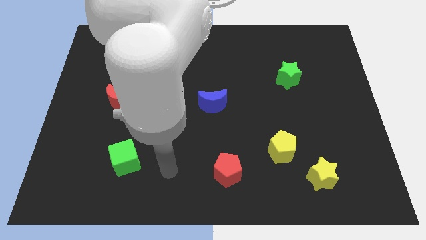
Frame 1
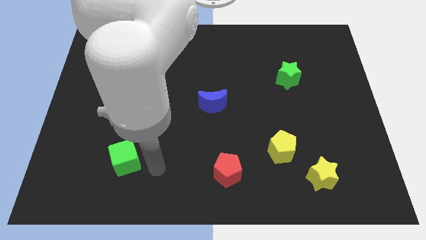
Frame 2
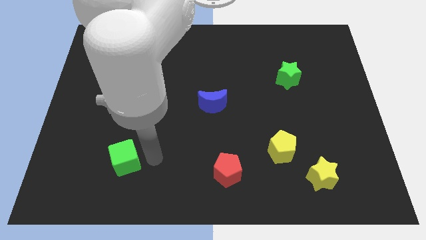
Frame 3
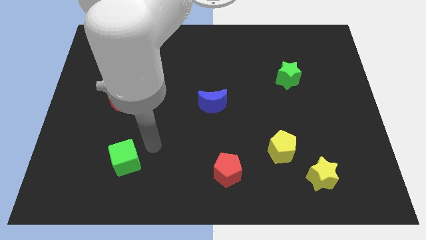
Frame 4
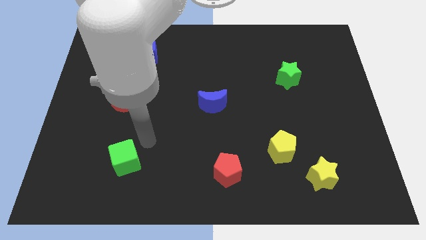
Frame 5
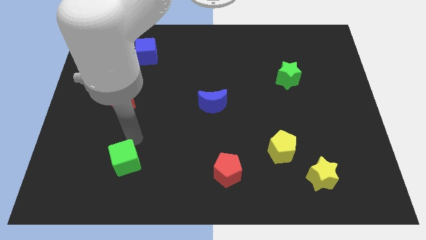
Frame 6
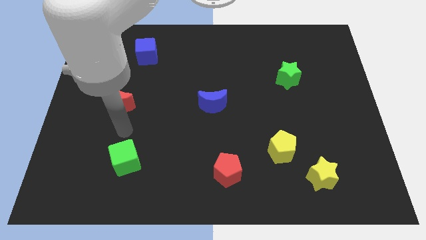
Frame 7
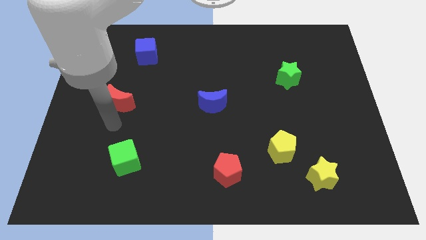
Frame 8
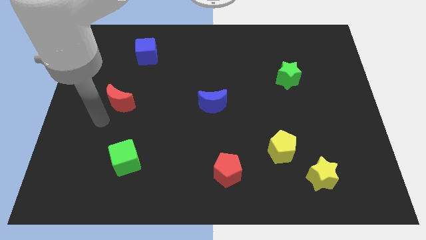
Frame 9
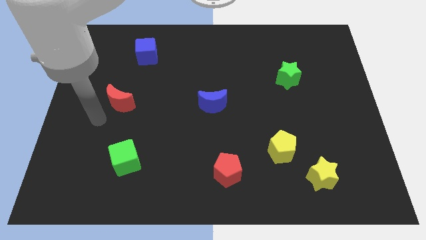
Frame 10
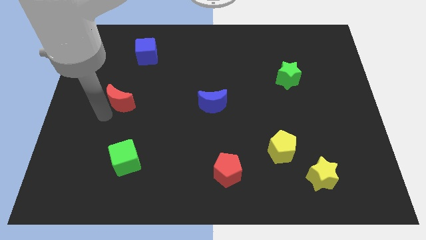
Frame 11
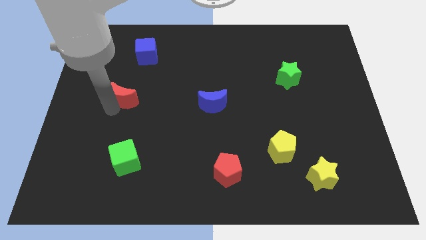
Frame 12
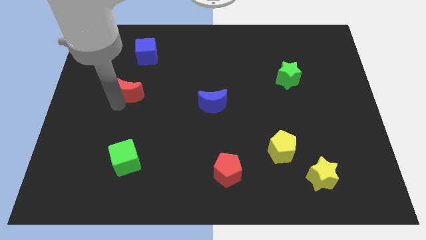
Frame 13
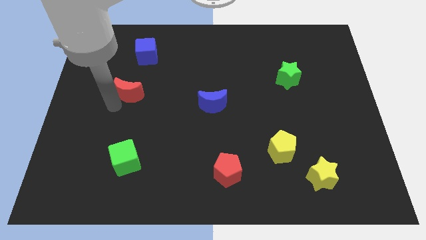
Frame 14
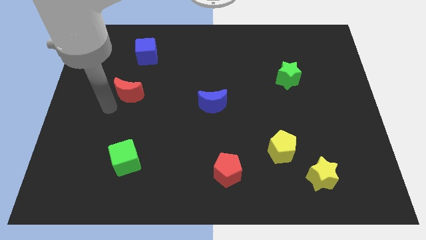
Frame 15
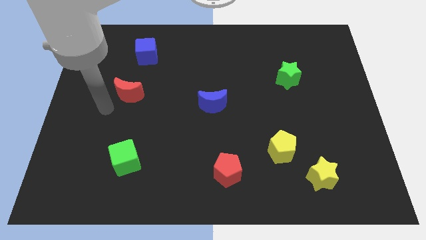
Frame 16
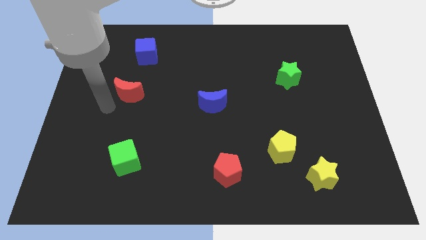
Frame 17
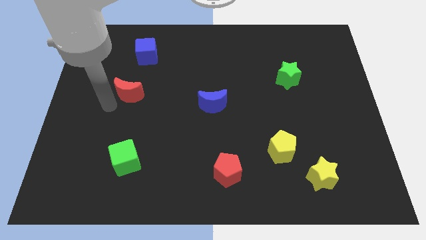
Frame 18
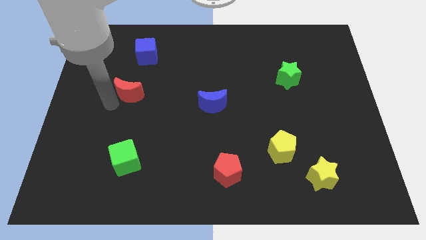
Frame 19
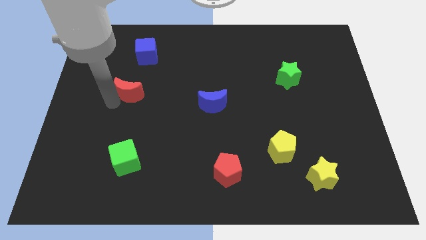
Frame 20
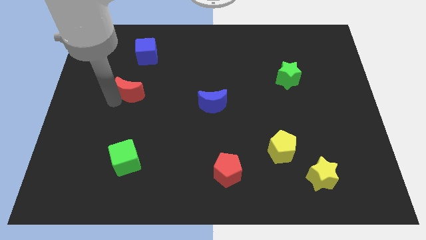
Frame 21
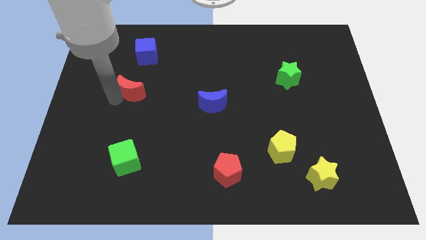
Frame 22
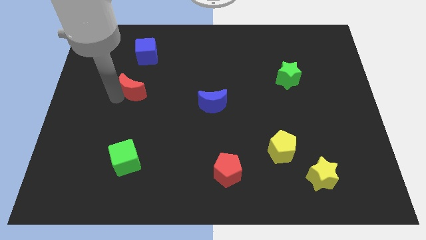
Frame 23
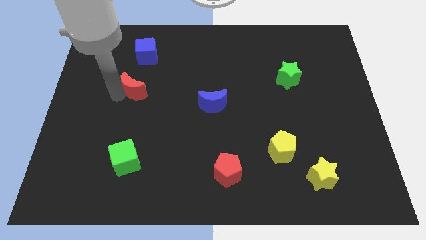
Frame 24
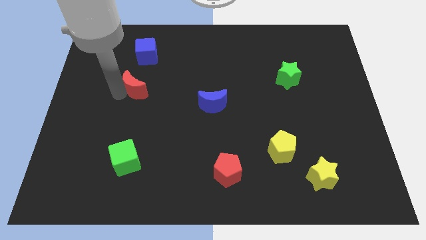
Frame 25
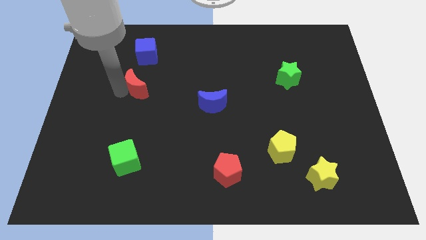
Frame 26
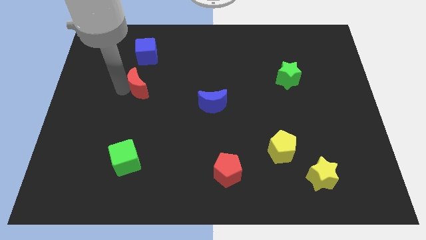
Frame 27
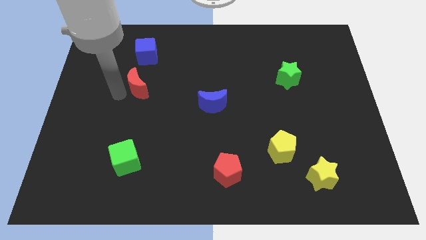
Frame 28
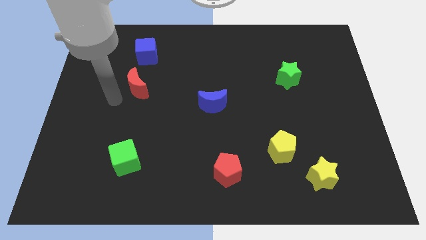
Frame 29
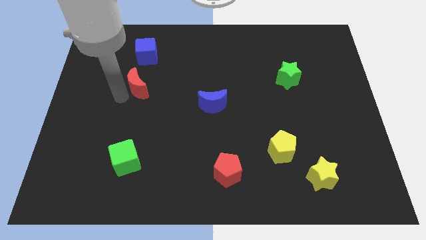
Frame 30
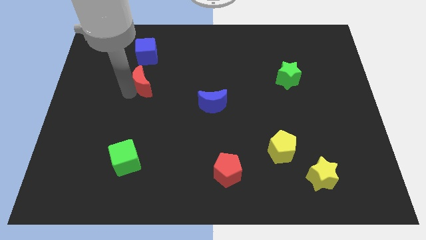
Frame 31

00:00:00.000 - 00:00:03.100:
move the red moon a bit upwards and to the right diagonally

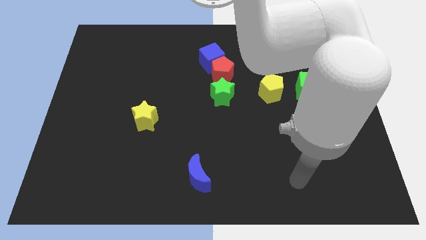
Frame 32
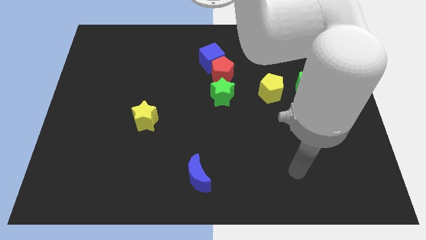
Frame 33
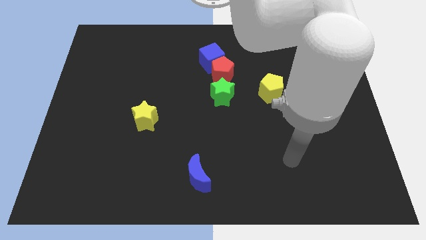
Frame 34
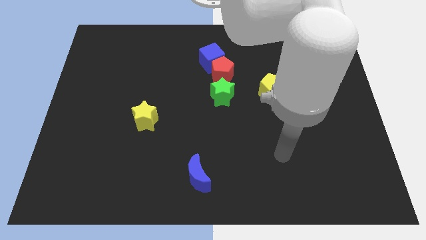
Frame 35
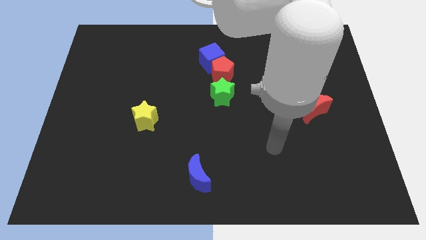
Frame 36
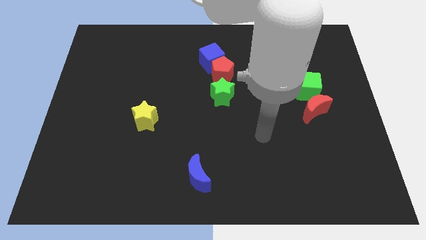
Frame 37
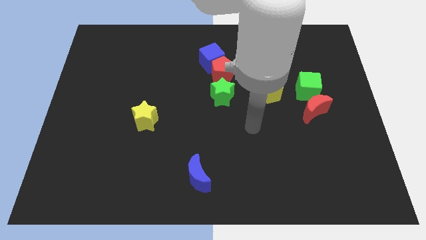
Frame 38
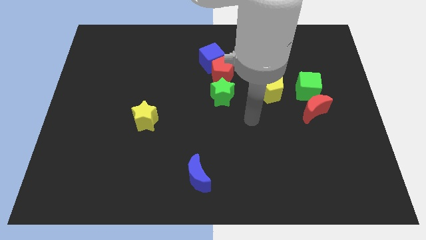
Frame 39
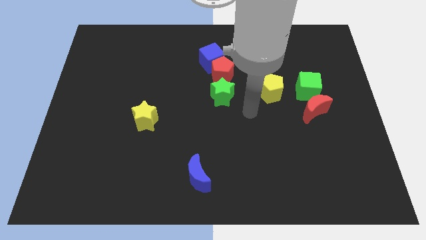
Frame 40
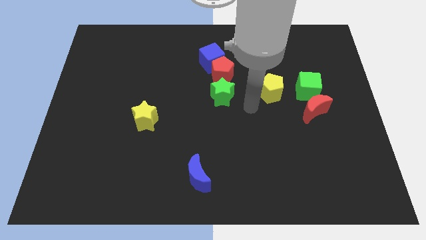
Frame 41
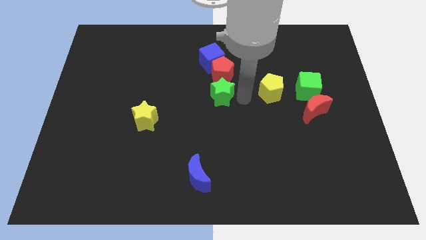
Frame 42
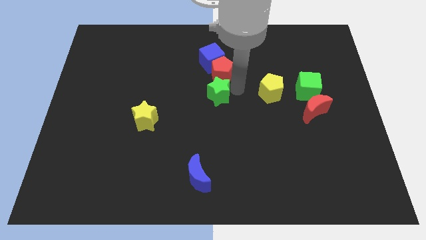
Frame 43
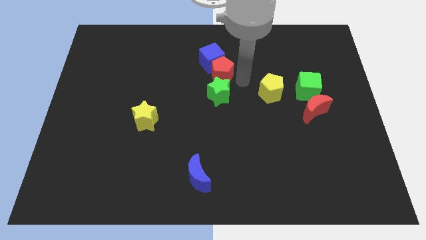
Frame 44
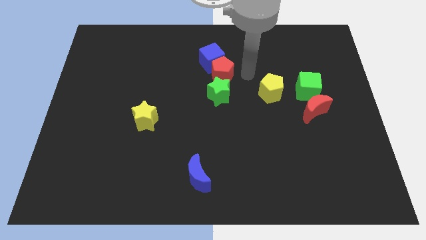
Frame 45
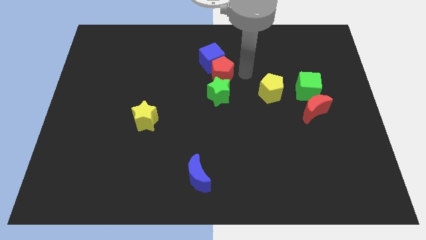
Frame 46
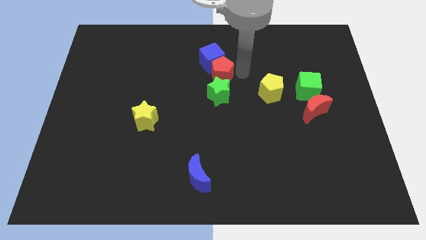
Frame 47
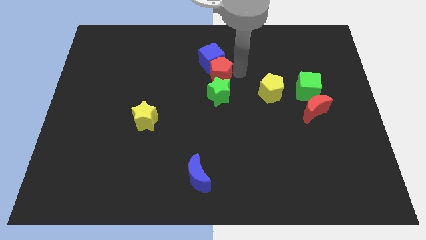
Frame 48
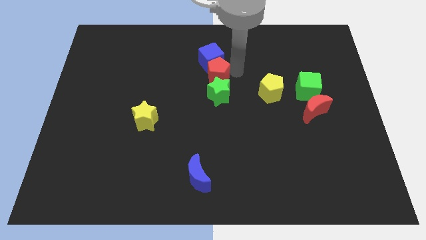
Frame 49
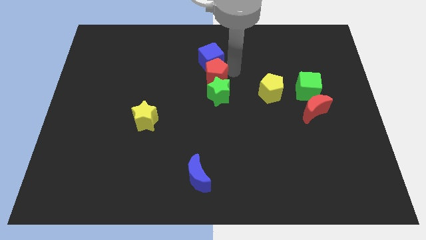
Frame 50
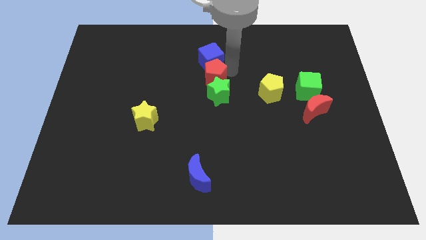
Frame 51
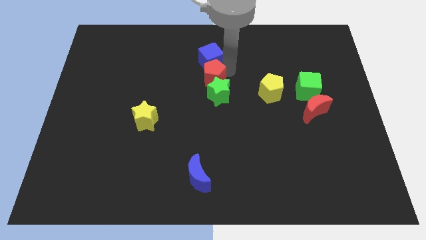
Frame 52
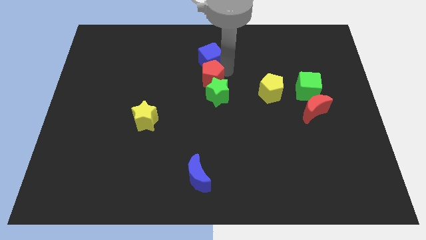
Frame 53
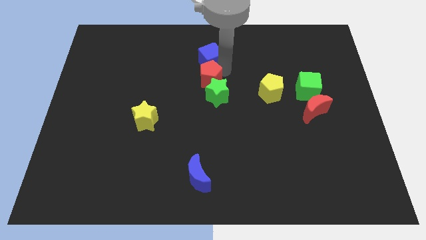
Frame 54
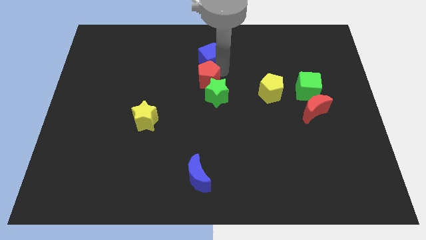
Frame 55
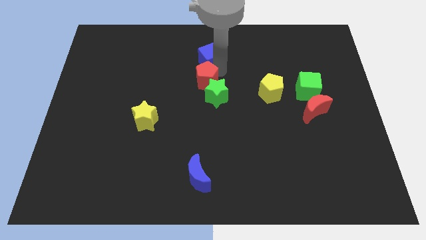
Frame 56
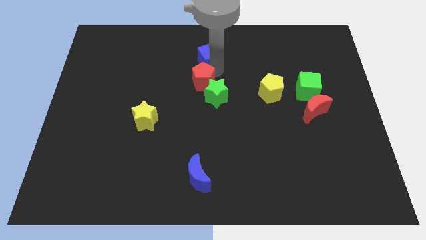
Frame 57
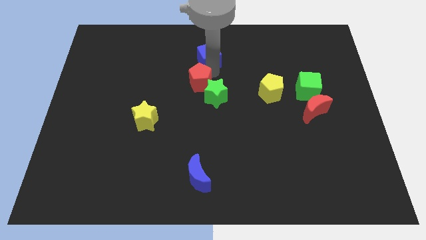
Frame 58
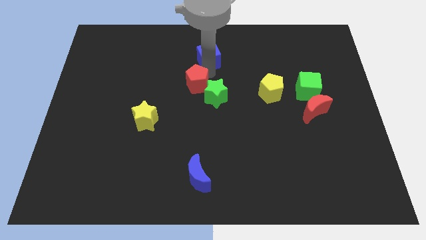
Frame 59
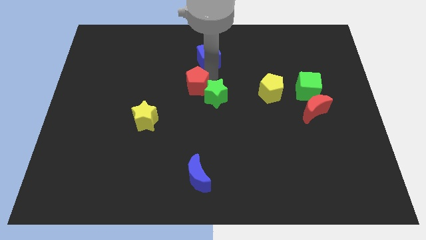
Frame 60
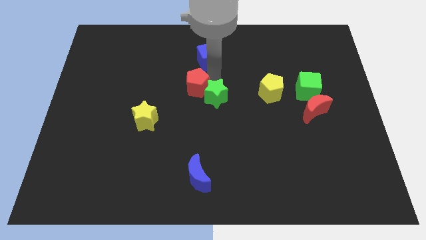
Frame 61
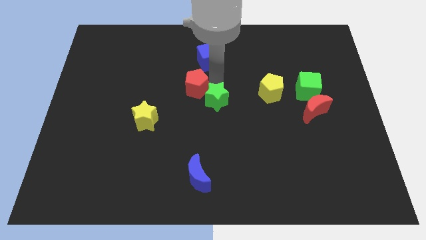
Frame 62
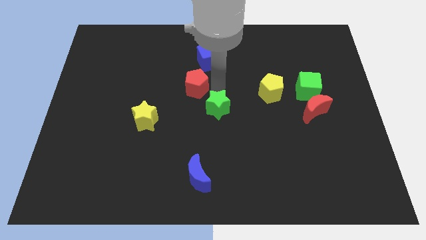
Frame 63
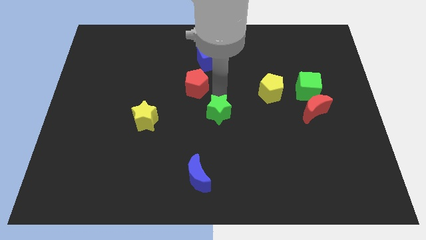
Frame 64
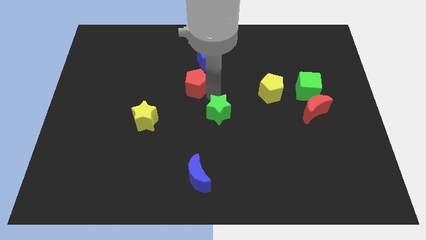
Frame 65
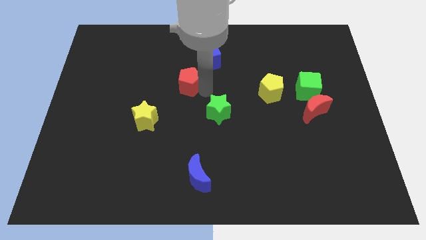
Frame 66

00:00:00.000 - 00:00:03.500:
push the red pentagon left a little bit

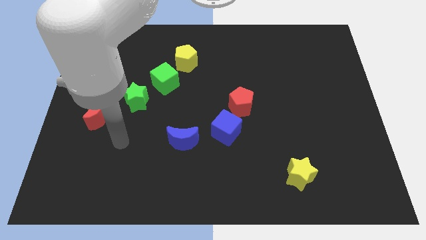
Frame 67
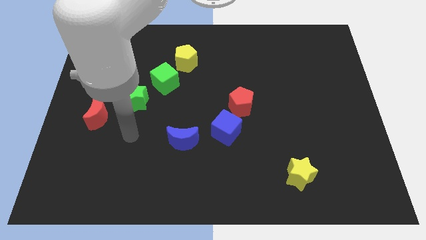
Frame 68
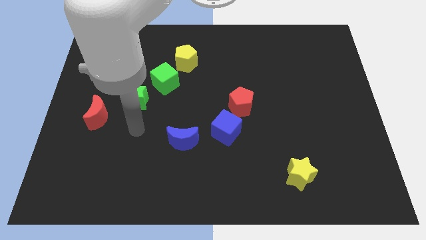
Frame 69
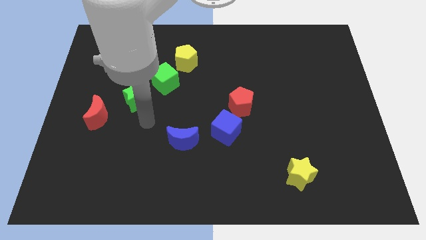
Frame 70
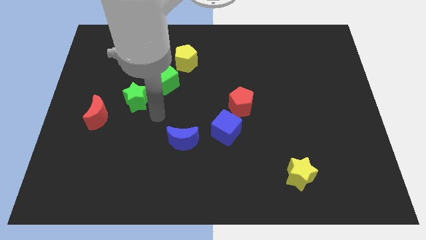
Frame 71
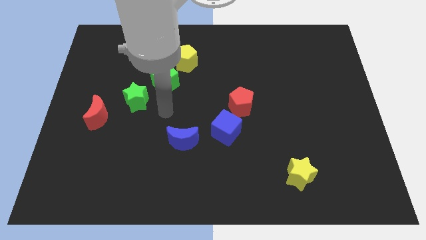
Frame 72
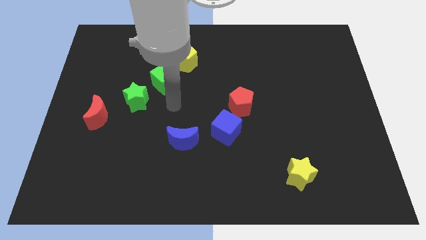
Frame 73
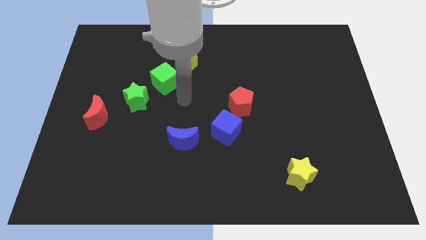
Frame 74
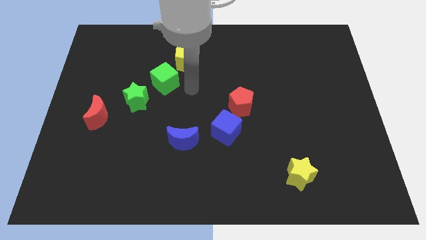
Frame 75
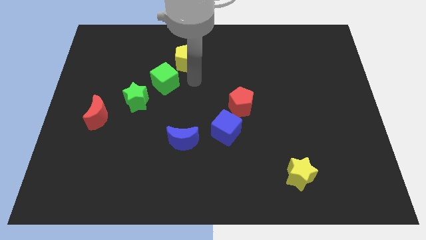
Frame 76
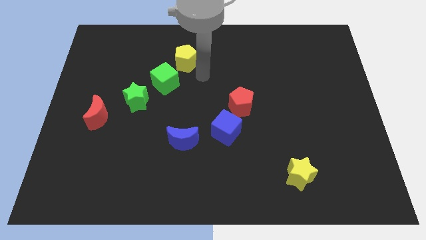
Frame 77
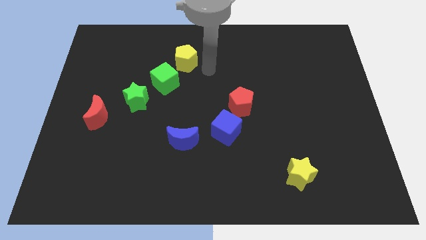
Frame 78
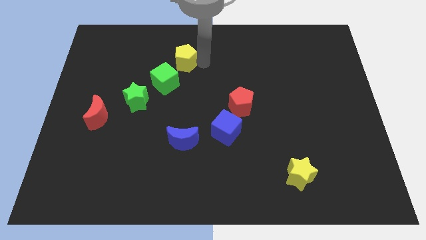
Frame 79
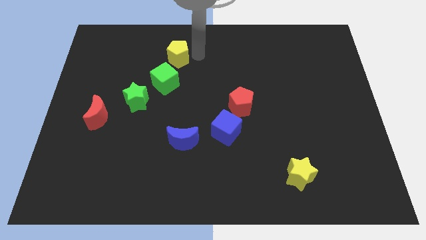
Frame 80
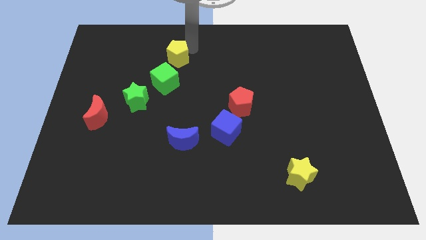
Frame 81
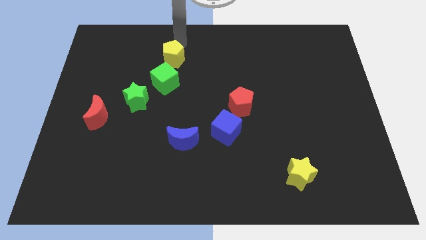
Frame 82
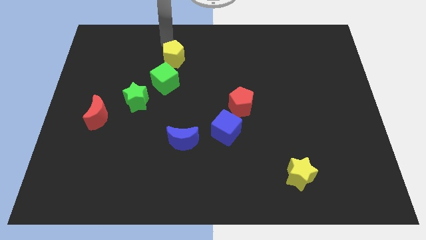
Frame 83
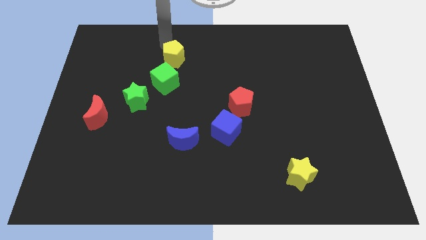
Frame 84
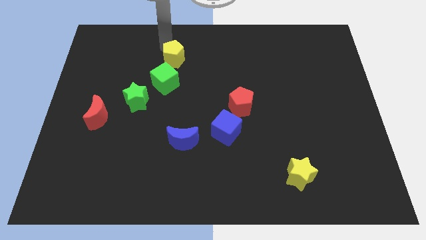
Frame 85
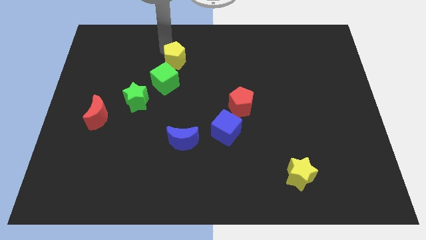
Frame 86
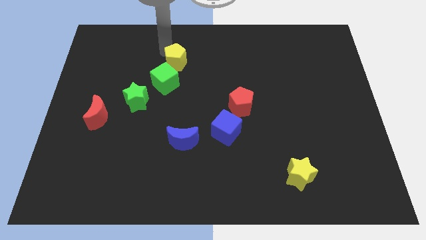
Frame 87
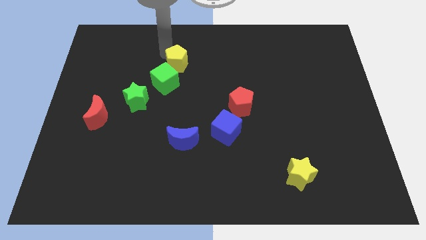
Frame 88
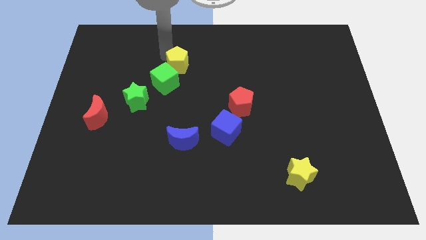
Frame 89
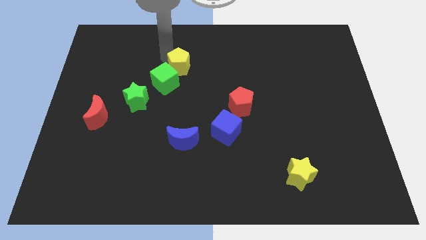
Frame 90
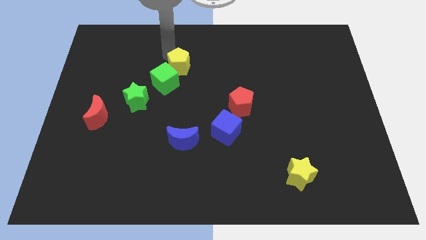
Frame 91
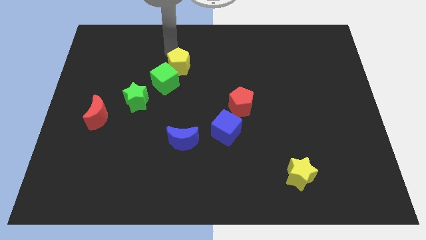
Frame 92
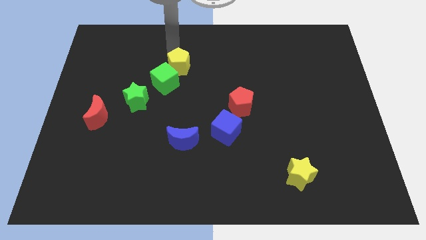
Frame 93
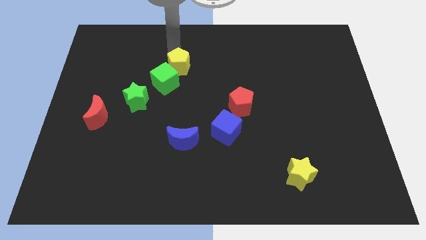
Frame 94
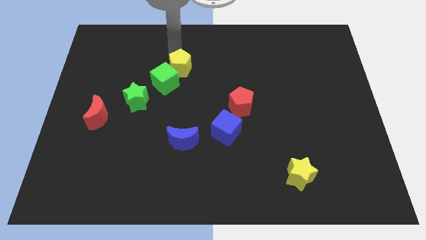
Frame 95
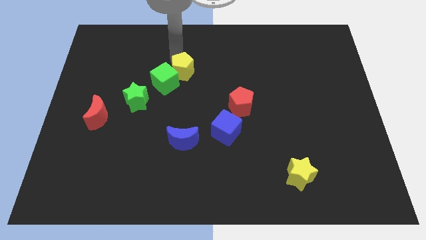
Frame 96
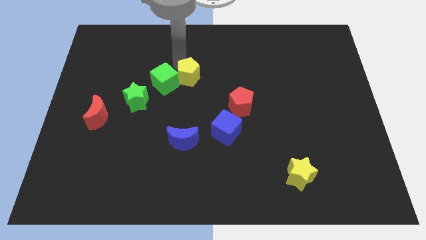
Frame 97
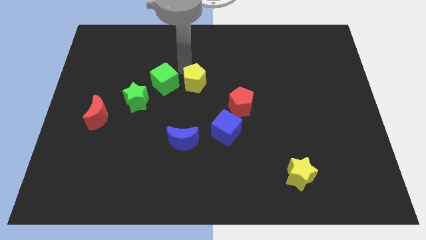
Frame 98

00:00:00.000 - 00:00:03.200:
slide the yellow pentagon a little down
